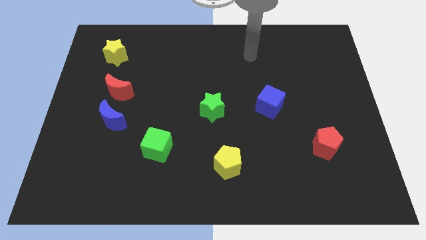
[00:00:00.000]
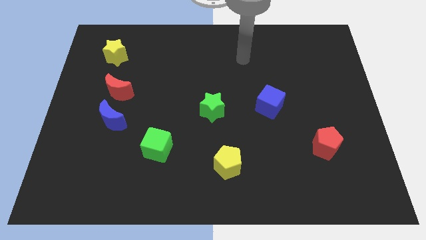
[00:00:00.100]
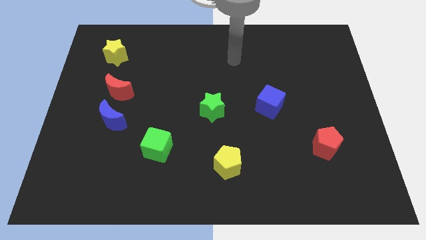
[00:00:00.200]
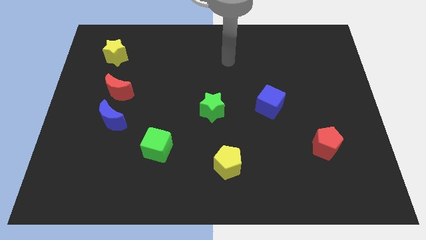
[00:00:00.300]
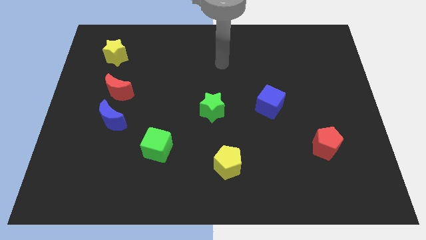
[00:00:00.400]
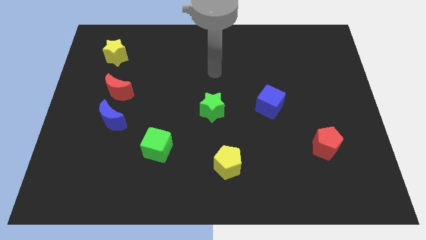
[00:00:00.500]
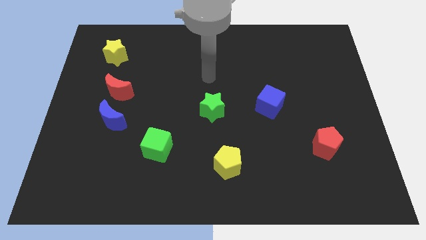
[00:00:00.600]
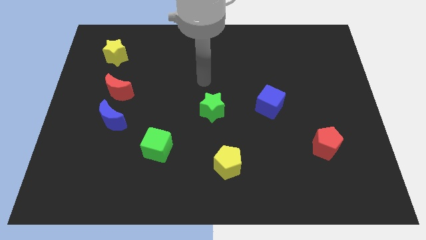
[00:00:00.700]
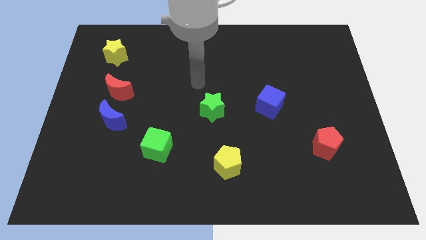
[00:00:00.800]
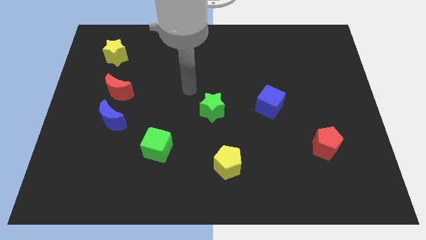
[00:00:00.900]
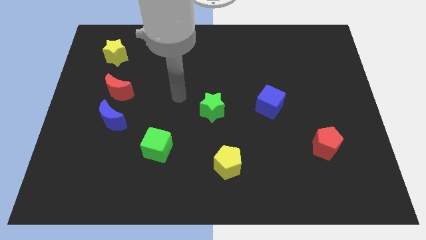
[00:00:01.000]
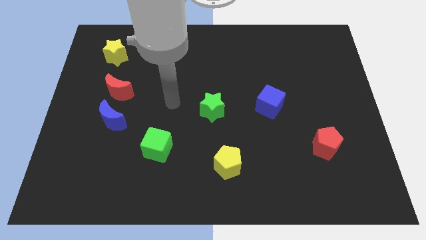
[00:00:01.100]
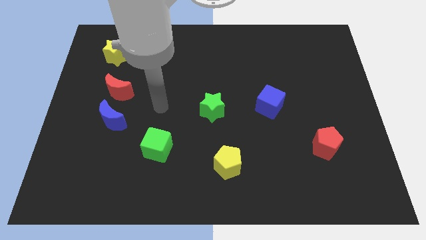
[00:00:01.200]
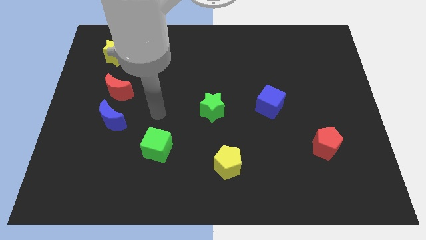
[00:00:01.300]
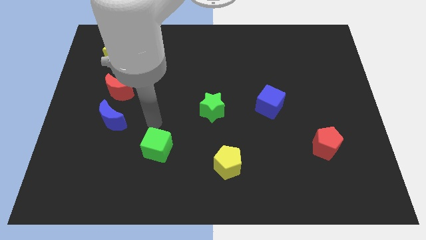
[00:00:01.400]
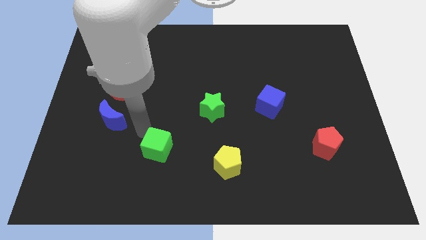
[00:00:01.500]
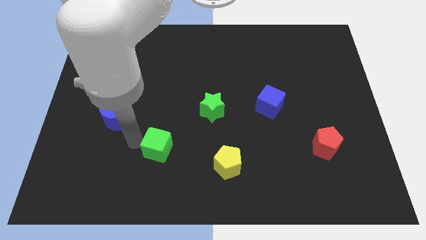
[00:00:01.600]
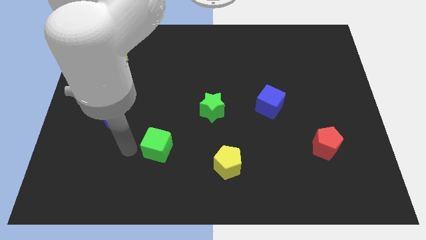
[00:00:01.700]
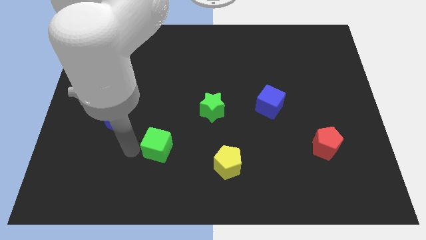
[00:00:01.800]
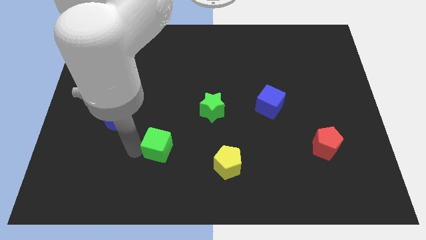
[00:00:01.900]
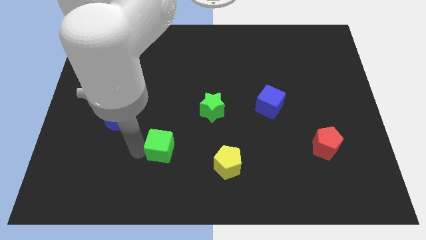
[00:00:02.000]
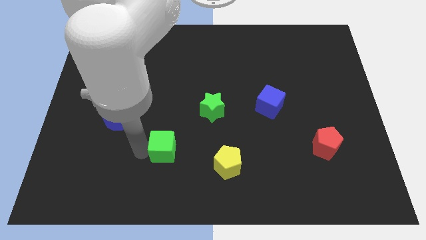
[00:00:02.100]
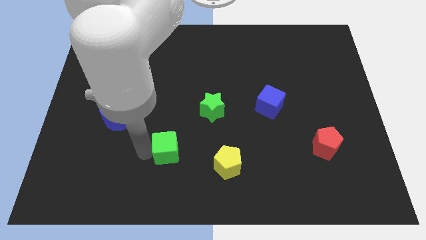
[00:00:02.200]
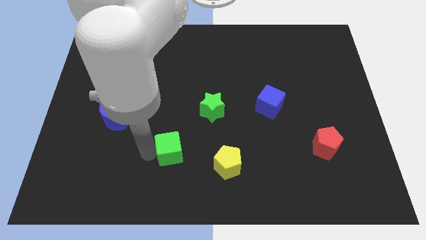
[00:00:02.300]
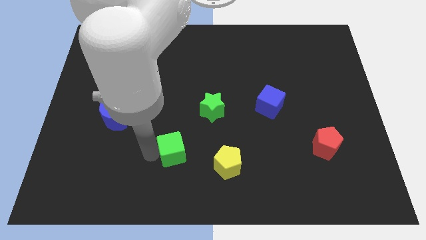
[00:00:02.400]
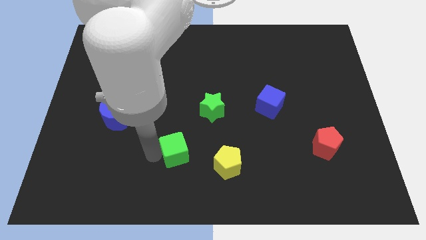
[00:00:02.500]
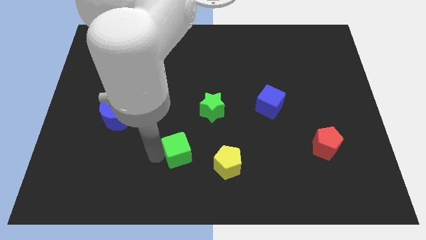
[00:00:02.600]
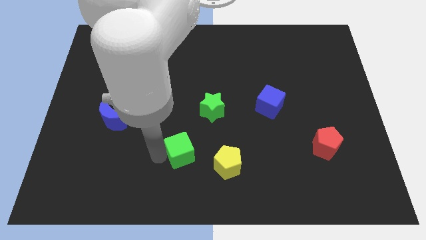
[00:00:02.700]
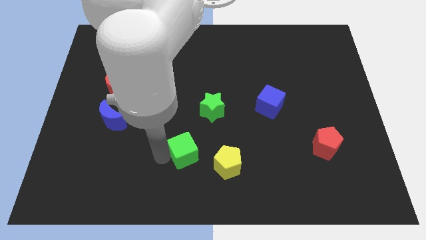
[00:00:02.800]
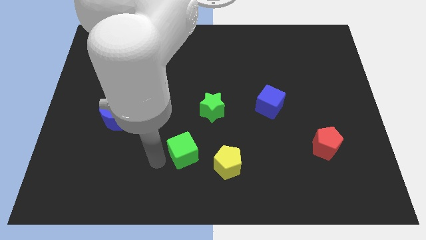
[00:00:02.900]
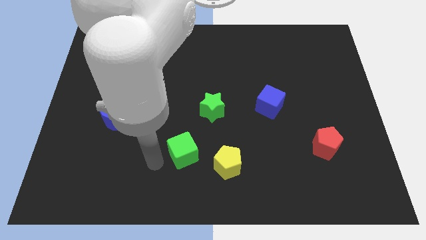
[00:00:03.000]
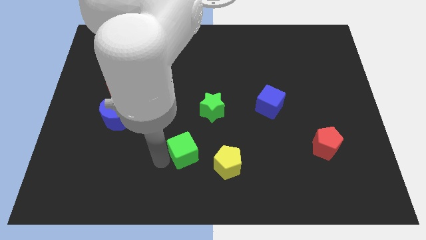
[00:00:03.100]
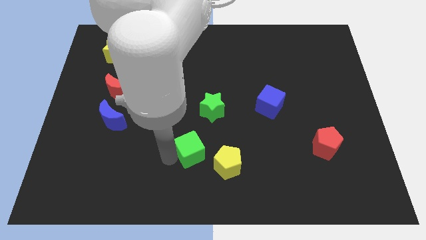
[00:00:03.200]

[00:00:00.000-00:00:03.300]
push the green cube a bit right

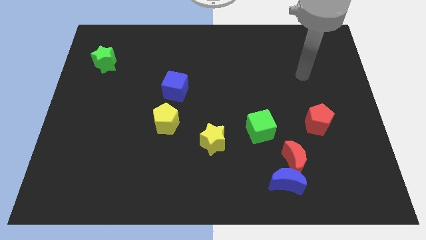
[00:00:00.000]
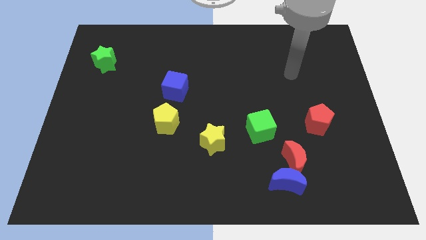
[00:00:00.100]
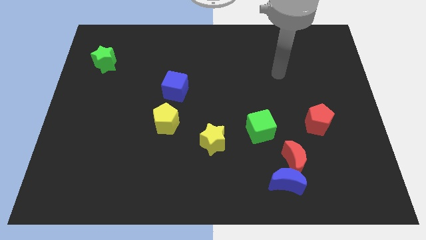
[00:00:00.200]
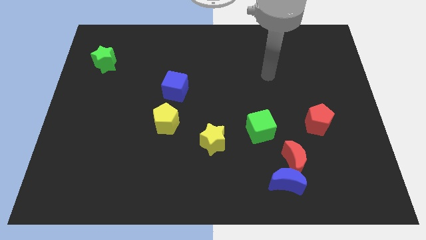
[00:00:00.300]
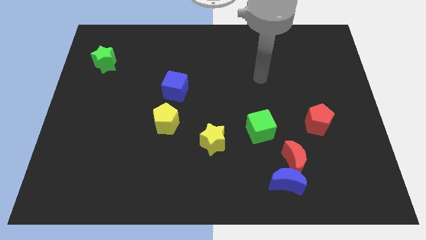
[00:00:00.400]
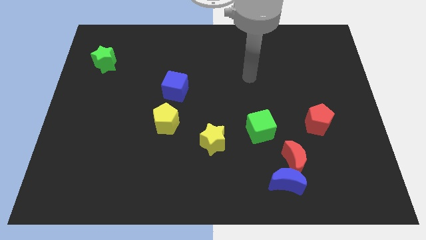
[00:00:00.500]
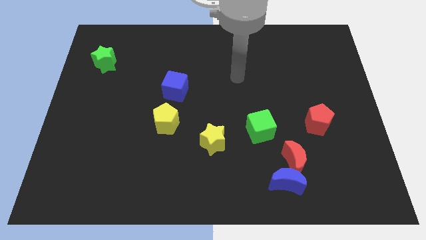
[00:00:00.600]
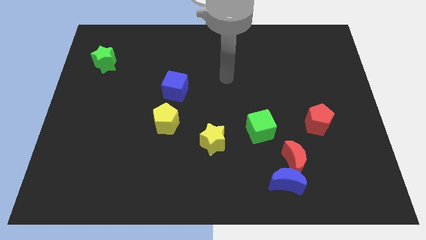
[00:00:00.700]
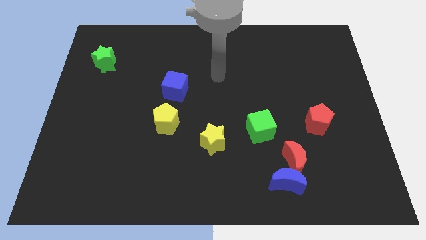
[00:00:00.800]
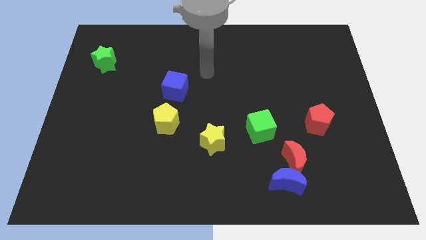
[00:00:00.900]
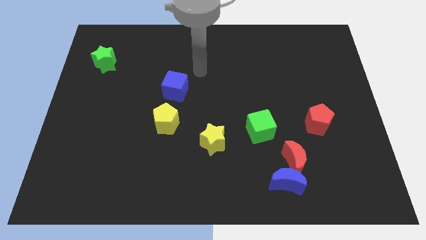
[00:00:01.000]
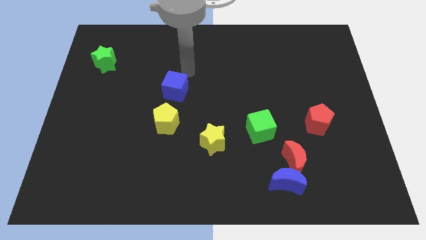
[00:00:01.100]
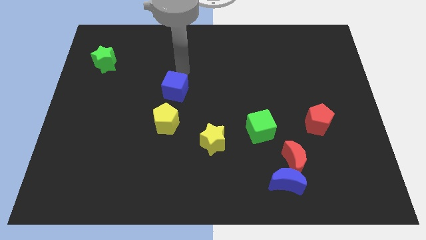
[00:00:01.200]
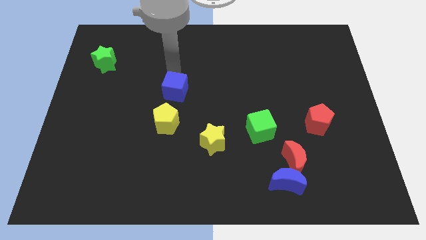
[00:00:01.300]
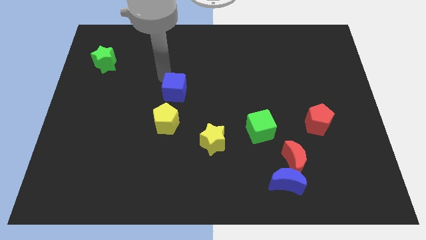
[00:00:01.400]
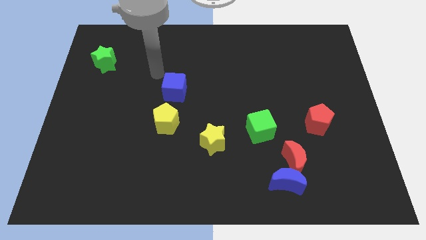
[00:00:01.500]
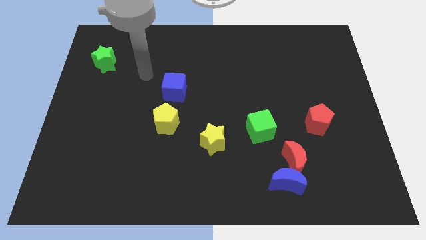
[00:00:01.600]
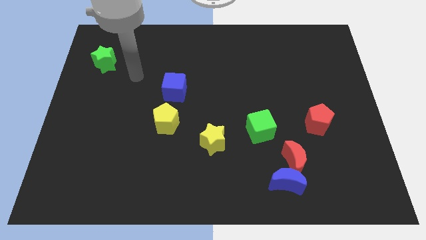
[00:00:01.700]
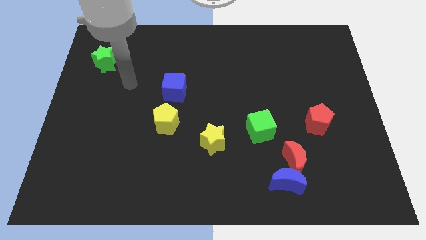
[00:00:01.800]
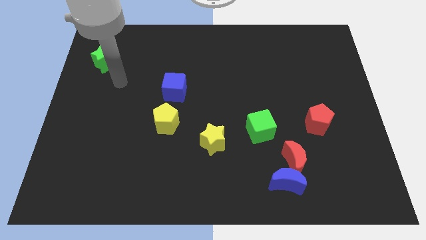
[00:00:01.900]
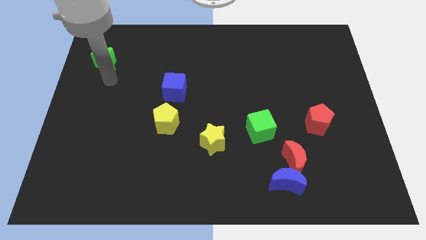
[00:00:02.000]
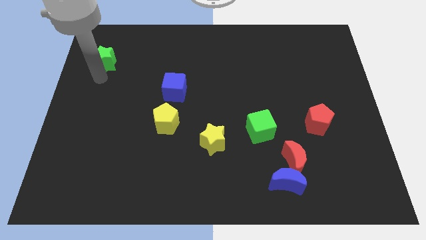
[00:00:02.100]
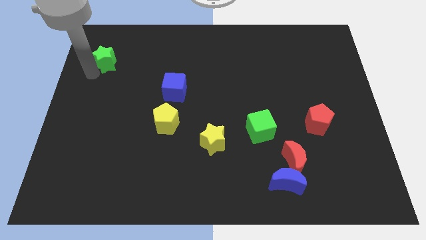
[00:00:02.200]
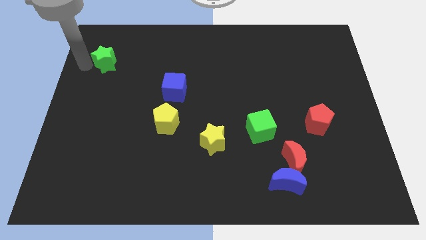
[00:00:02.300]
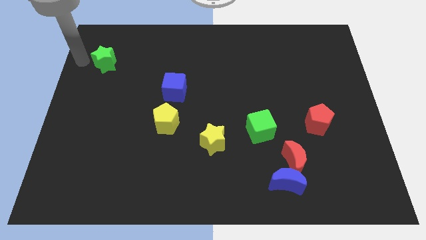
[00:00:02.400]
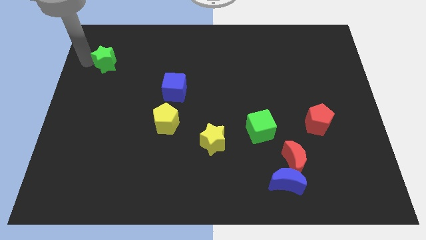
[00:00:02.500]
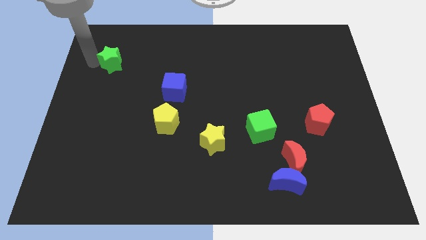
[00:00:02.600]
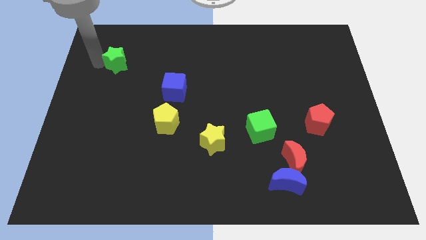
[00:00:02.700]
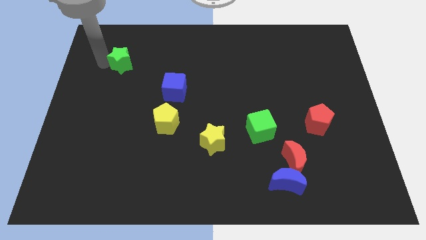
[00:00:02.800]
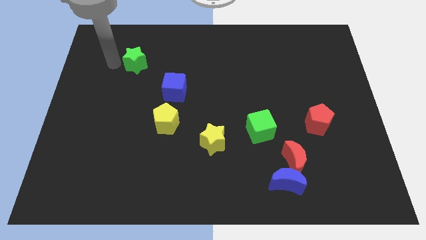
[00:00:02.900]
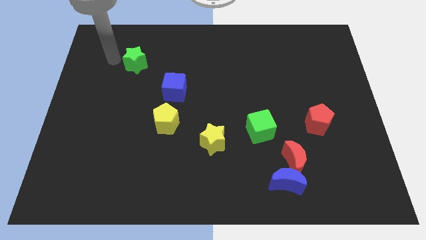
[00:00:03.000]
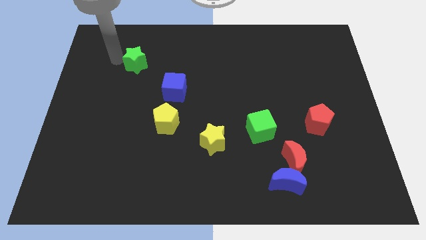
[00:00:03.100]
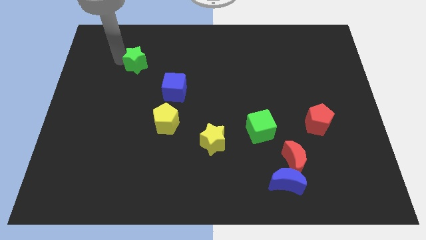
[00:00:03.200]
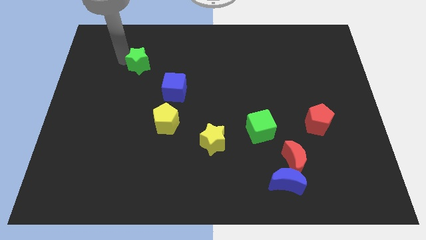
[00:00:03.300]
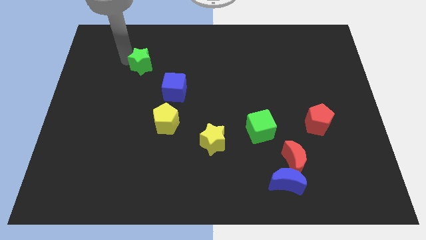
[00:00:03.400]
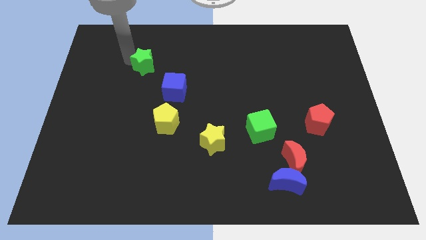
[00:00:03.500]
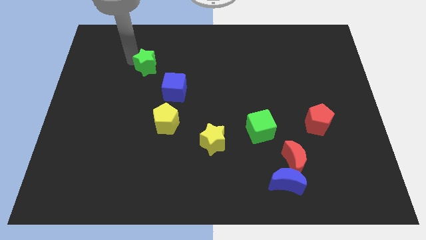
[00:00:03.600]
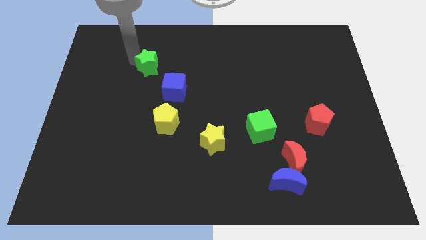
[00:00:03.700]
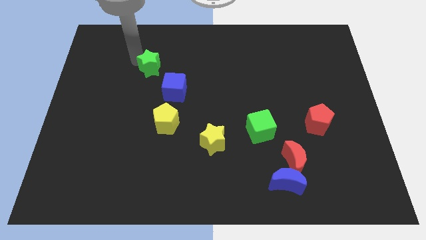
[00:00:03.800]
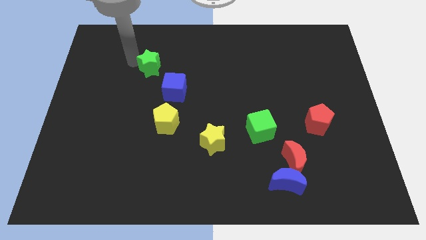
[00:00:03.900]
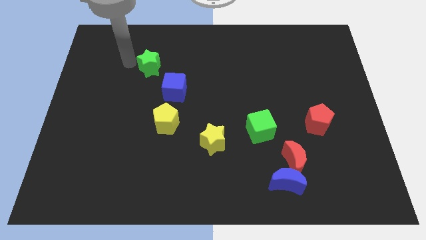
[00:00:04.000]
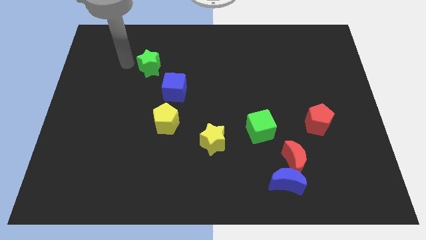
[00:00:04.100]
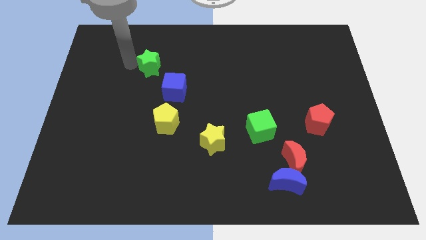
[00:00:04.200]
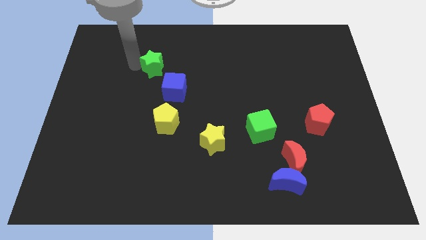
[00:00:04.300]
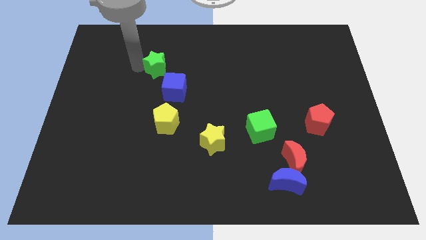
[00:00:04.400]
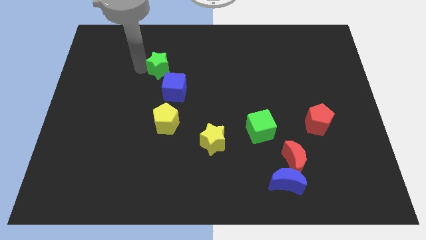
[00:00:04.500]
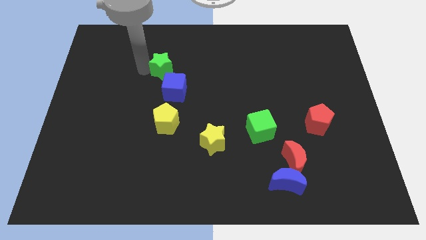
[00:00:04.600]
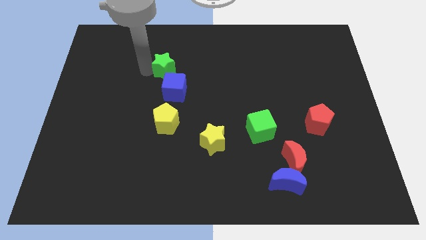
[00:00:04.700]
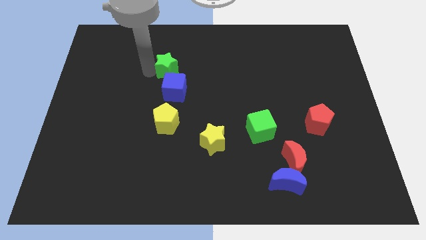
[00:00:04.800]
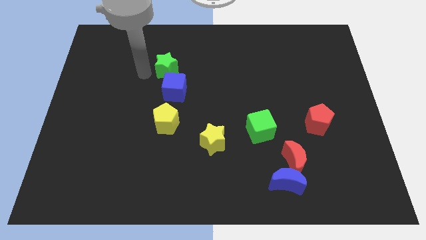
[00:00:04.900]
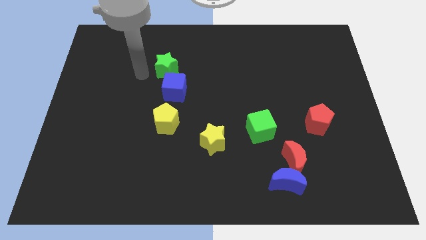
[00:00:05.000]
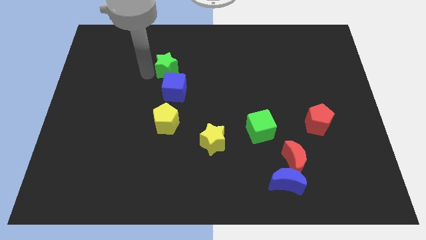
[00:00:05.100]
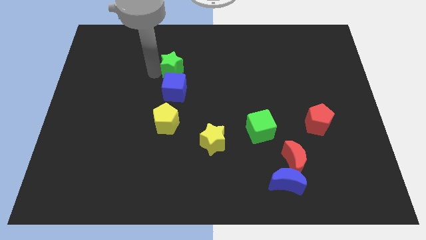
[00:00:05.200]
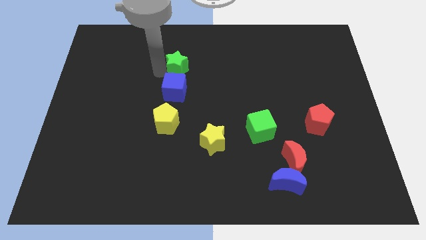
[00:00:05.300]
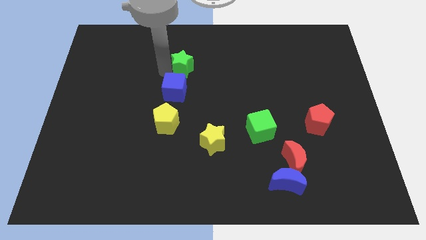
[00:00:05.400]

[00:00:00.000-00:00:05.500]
slide the green star right
